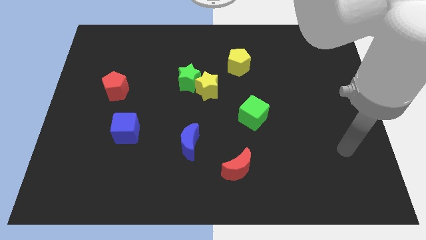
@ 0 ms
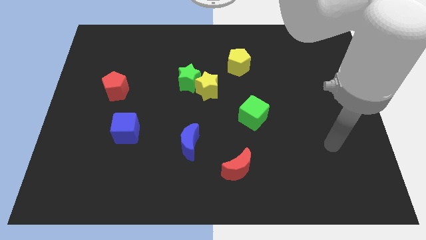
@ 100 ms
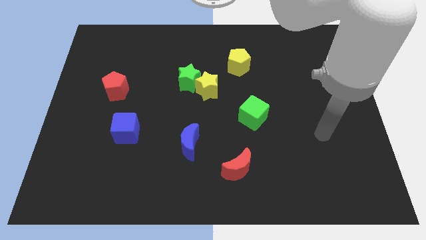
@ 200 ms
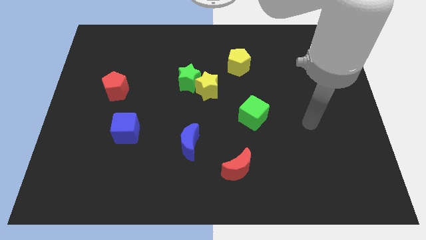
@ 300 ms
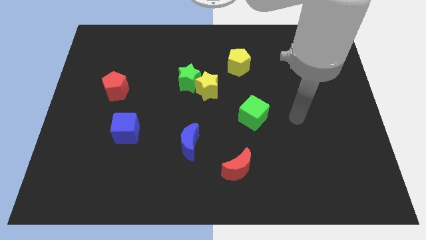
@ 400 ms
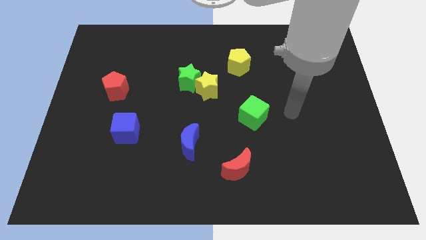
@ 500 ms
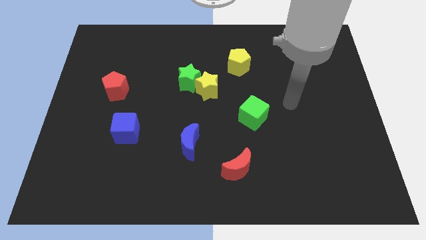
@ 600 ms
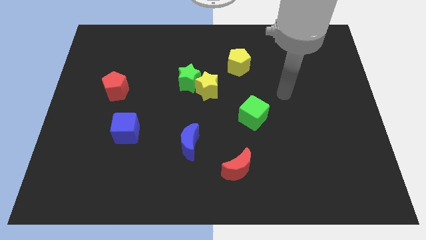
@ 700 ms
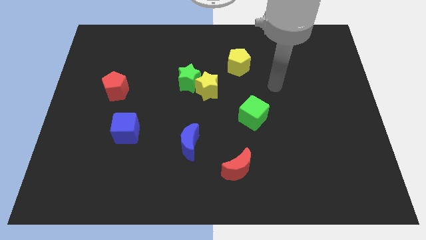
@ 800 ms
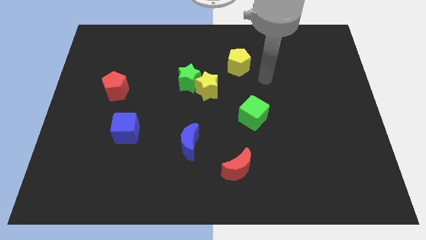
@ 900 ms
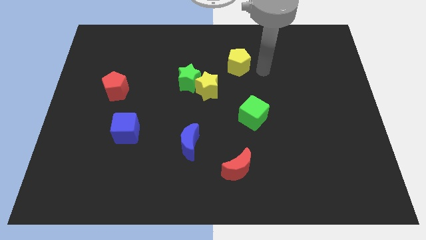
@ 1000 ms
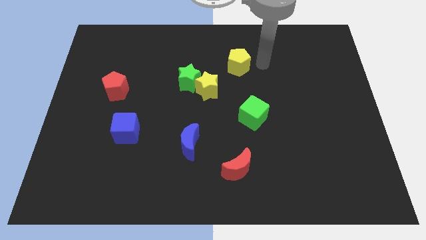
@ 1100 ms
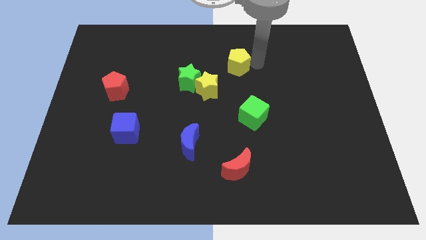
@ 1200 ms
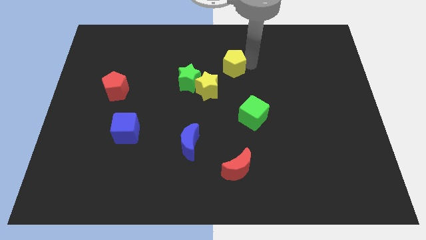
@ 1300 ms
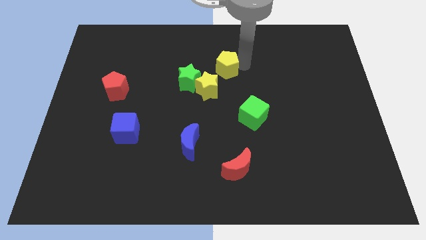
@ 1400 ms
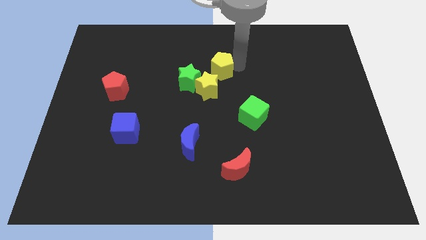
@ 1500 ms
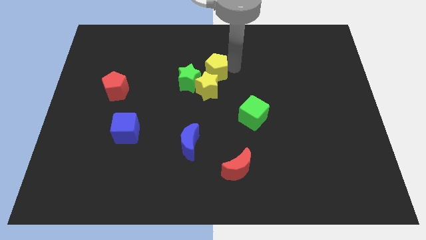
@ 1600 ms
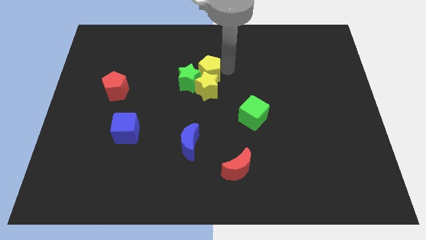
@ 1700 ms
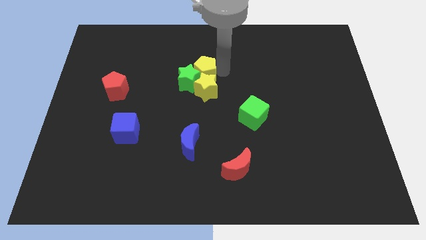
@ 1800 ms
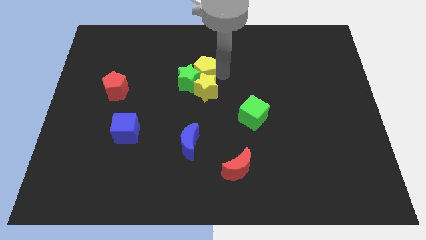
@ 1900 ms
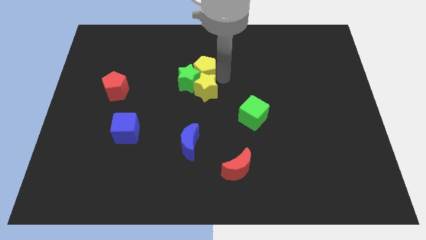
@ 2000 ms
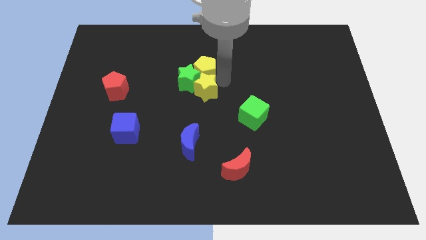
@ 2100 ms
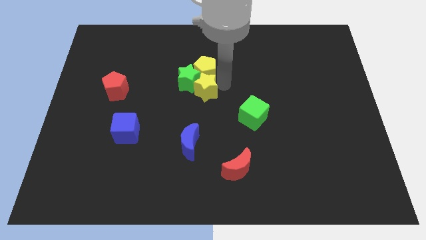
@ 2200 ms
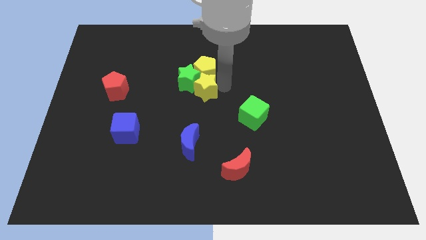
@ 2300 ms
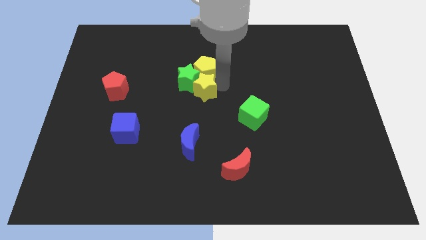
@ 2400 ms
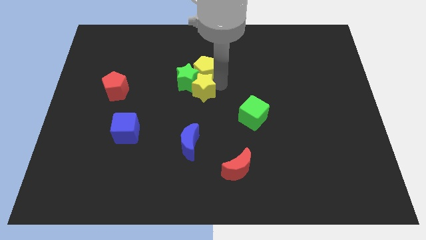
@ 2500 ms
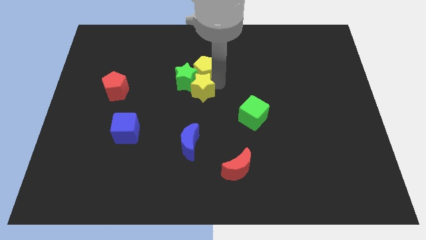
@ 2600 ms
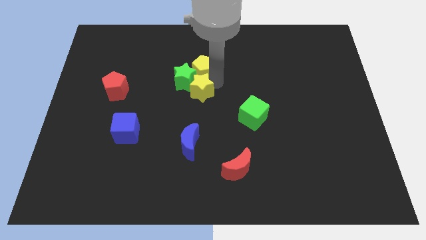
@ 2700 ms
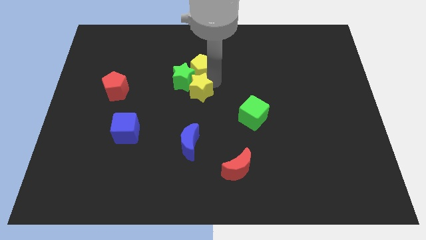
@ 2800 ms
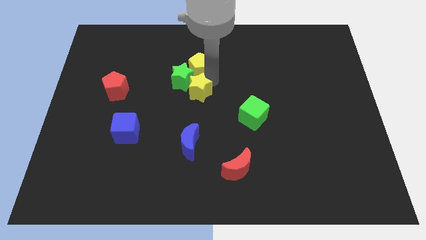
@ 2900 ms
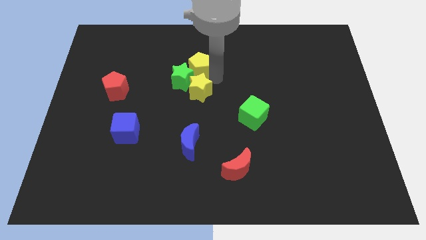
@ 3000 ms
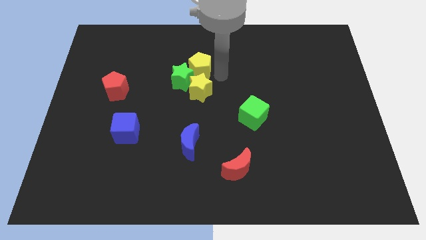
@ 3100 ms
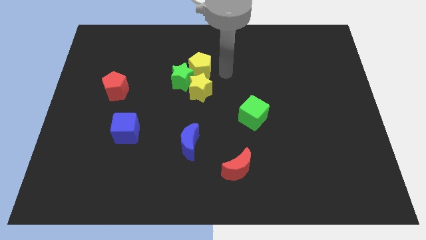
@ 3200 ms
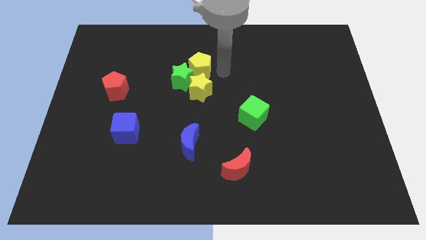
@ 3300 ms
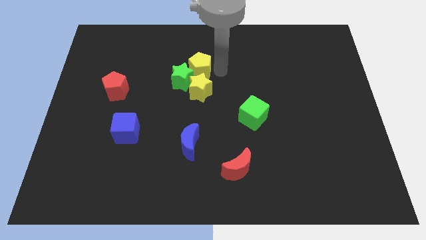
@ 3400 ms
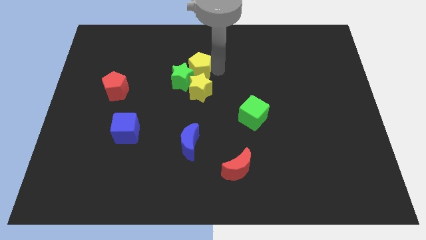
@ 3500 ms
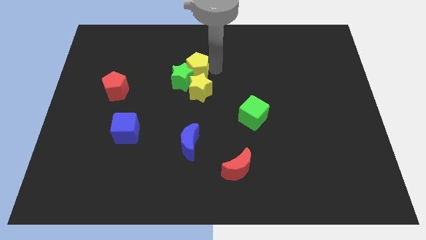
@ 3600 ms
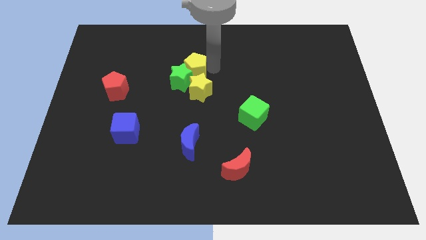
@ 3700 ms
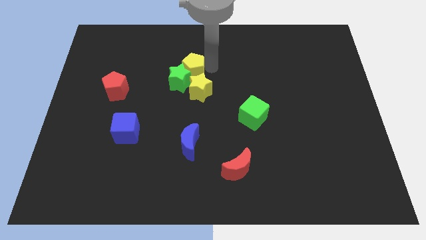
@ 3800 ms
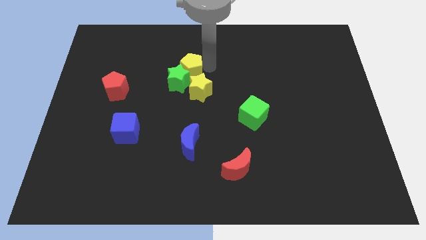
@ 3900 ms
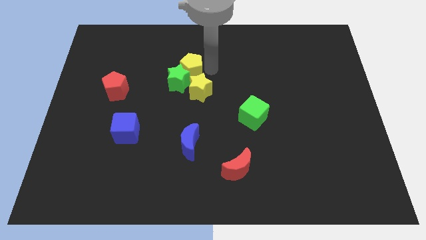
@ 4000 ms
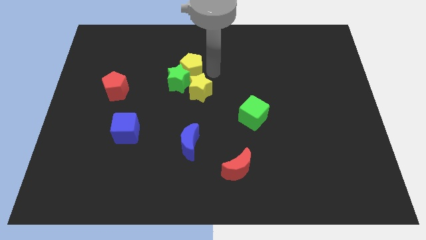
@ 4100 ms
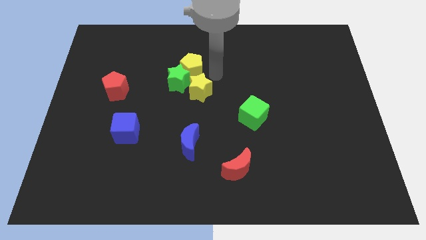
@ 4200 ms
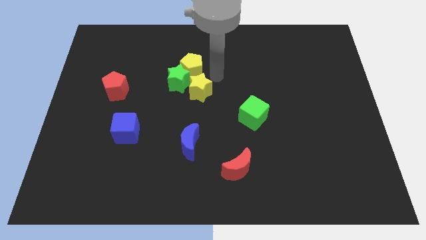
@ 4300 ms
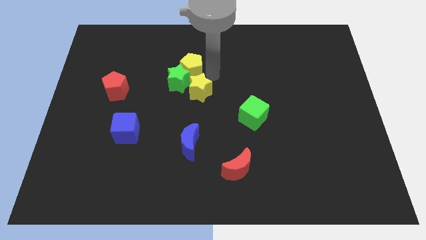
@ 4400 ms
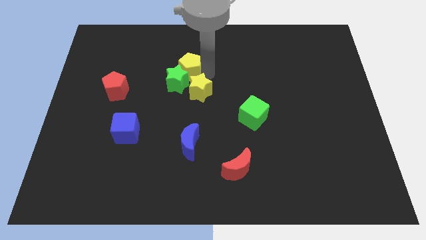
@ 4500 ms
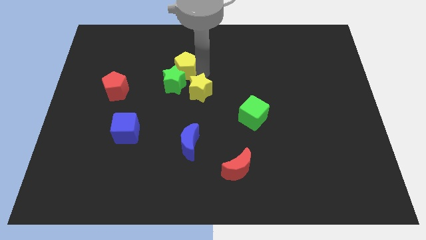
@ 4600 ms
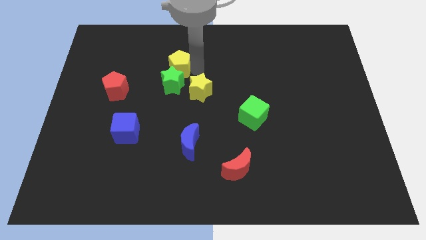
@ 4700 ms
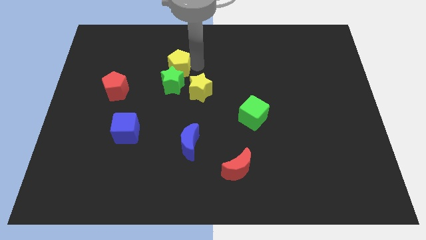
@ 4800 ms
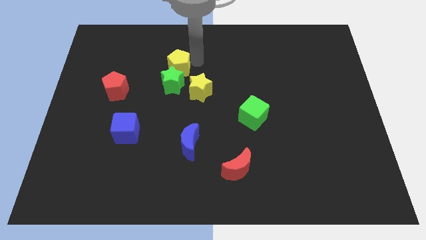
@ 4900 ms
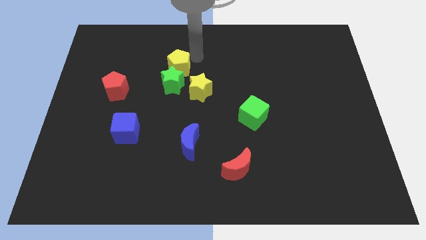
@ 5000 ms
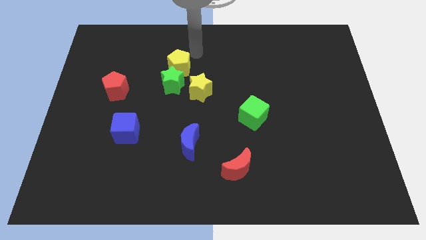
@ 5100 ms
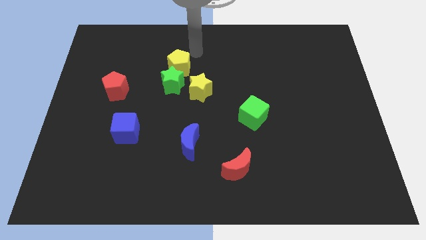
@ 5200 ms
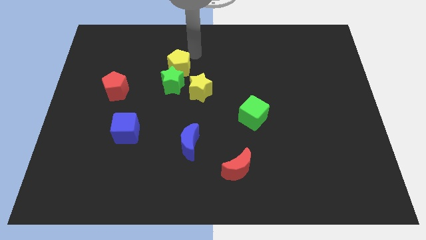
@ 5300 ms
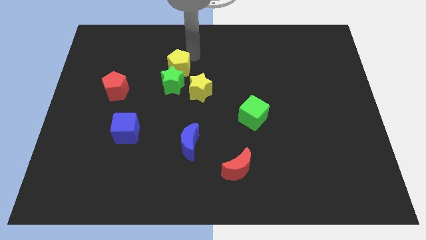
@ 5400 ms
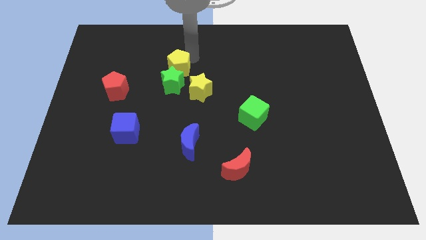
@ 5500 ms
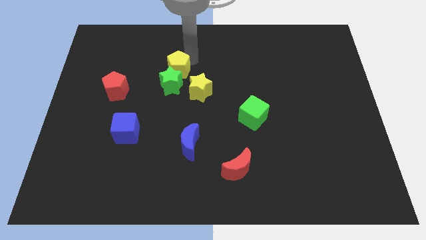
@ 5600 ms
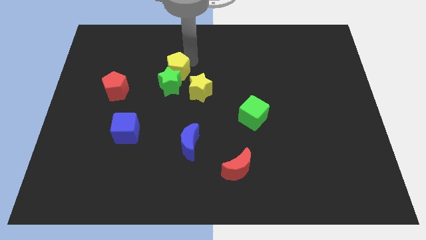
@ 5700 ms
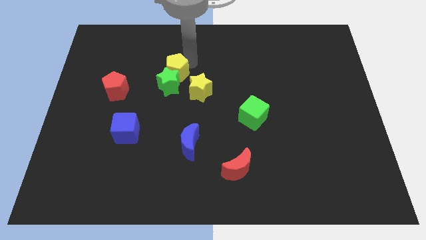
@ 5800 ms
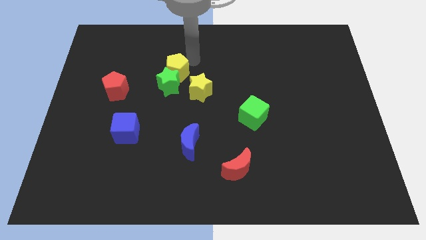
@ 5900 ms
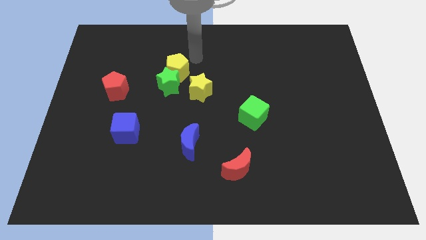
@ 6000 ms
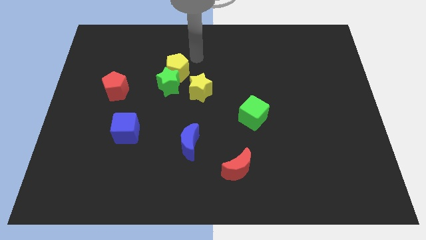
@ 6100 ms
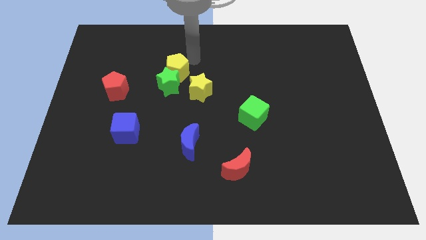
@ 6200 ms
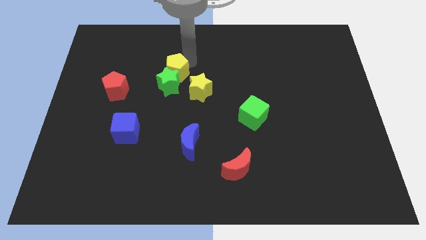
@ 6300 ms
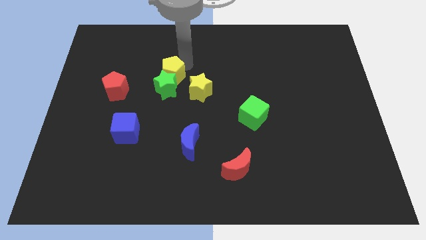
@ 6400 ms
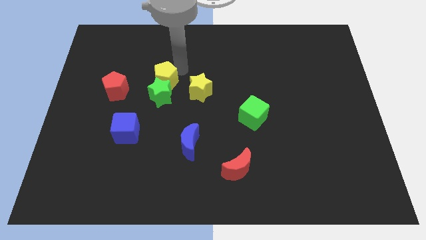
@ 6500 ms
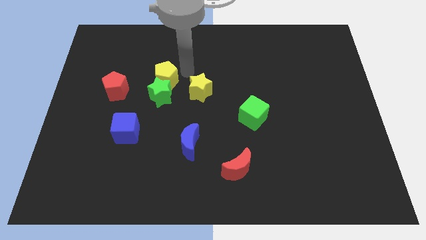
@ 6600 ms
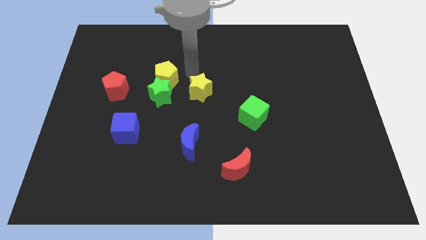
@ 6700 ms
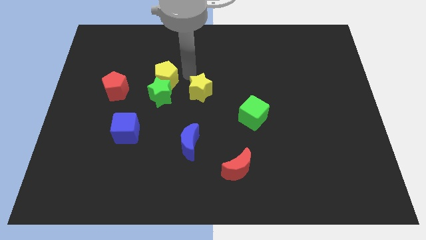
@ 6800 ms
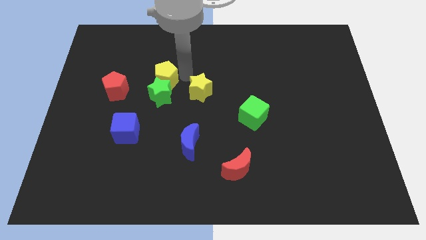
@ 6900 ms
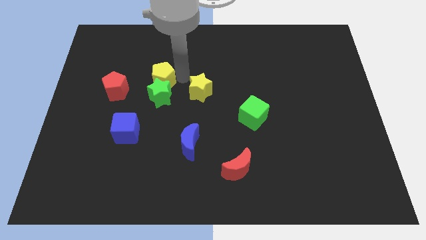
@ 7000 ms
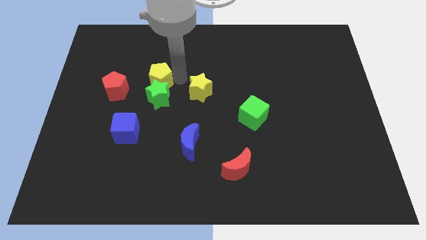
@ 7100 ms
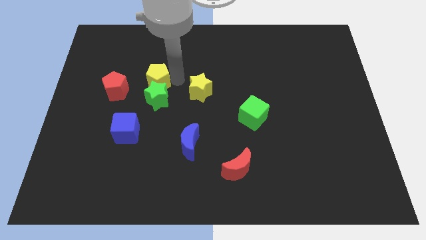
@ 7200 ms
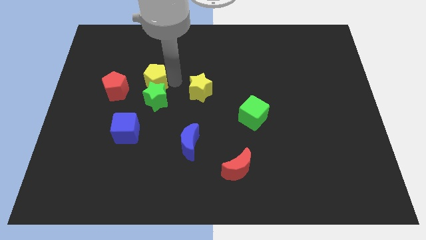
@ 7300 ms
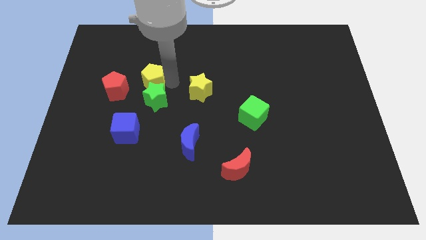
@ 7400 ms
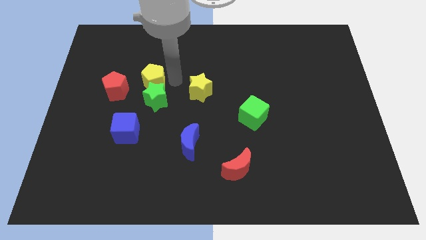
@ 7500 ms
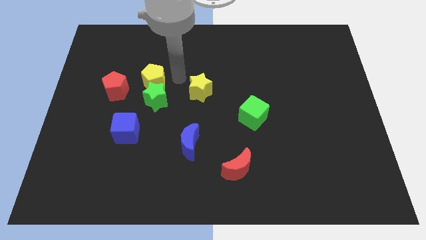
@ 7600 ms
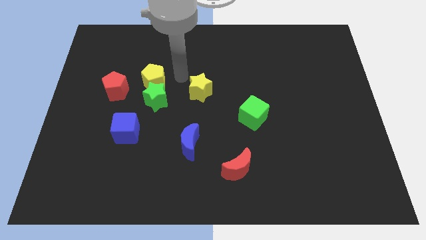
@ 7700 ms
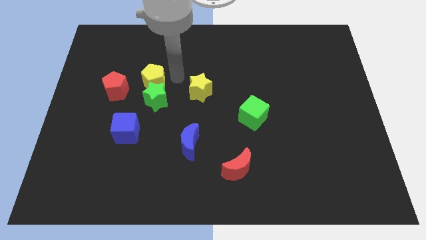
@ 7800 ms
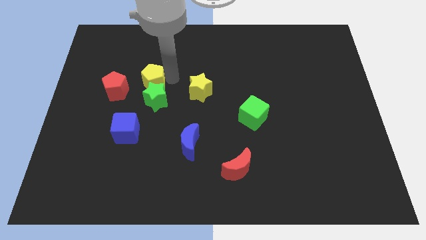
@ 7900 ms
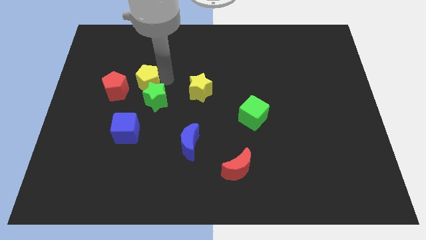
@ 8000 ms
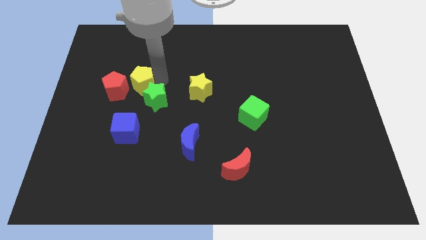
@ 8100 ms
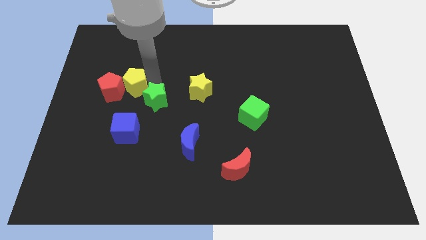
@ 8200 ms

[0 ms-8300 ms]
slide the yellow pentagon next to the red pentagon
